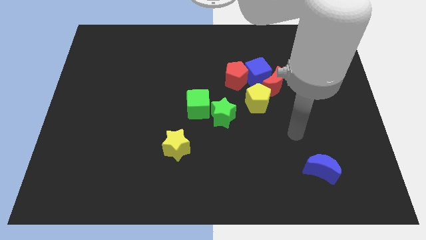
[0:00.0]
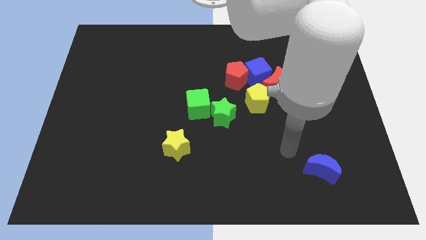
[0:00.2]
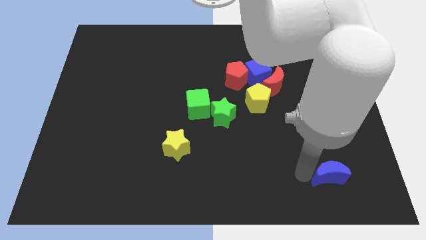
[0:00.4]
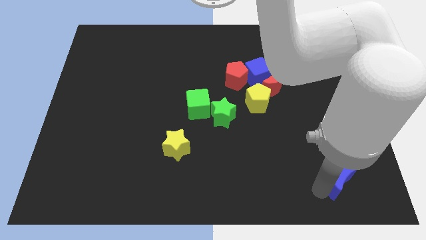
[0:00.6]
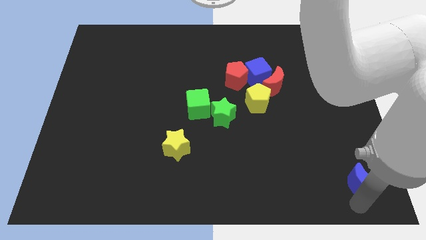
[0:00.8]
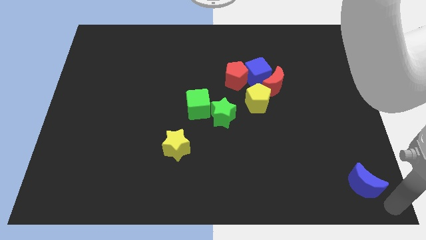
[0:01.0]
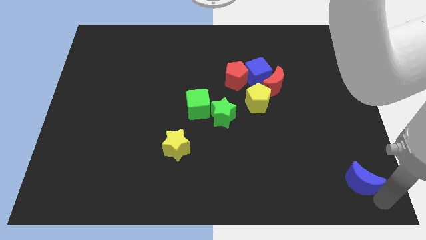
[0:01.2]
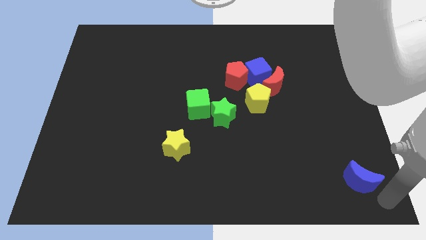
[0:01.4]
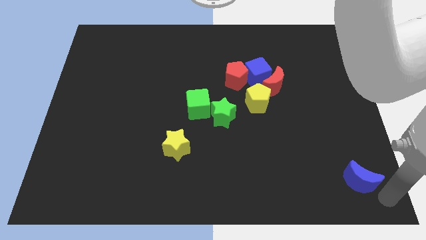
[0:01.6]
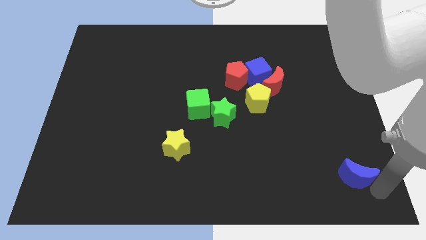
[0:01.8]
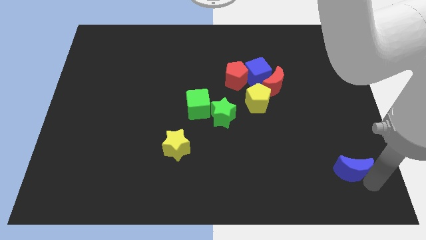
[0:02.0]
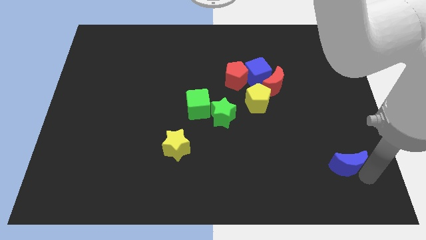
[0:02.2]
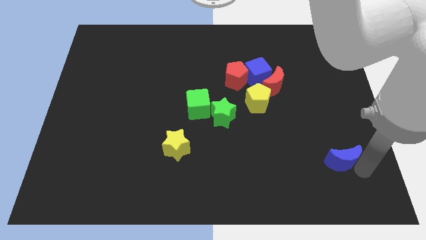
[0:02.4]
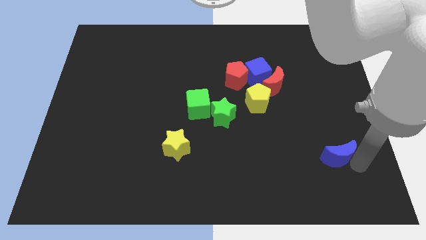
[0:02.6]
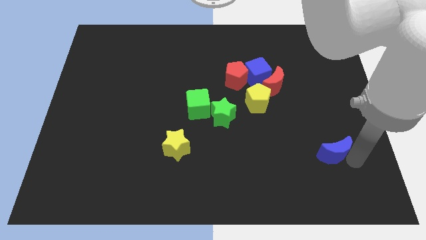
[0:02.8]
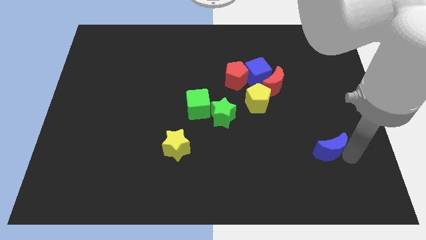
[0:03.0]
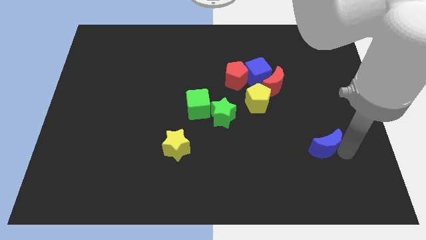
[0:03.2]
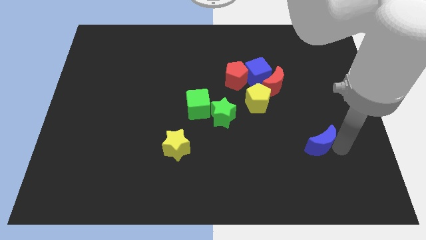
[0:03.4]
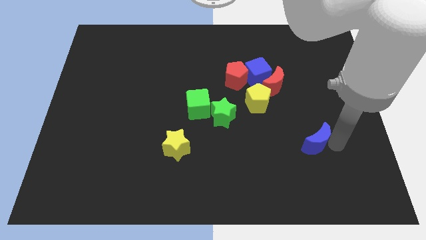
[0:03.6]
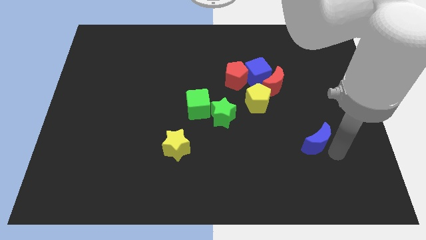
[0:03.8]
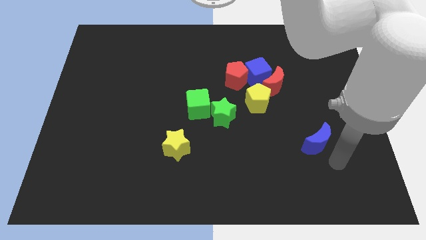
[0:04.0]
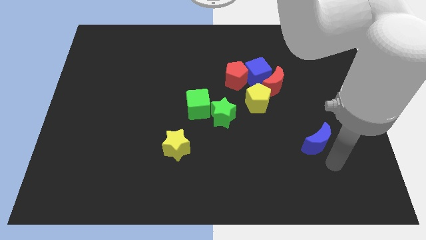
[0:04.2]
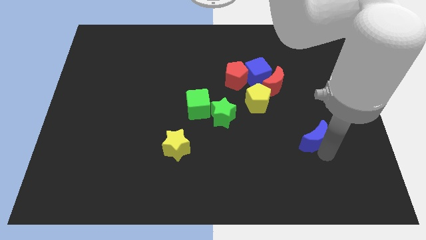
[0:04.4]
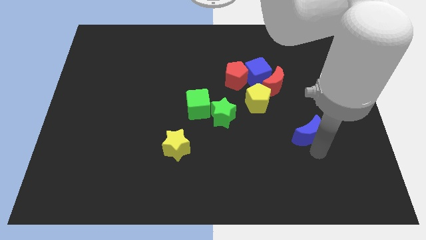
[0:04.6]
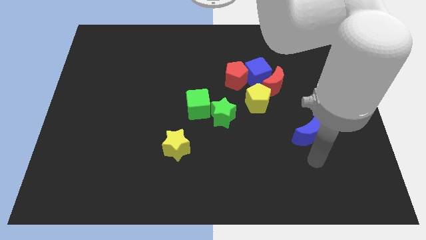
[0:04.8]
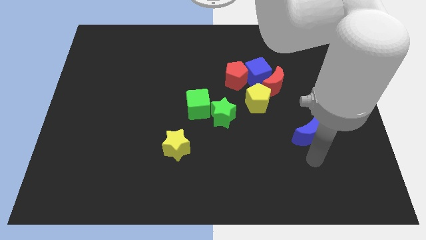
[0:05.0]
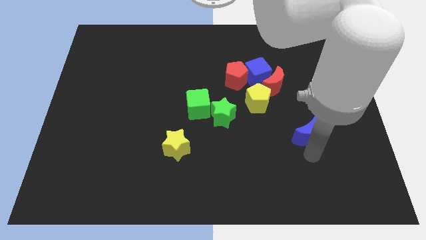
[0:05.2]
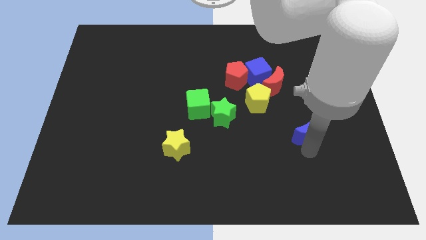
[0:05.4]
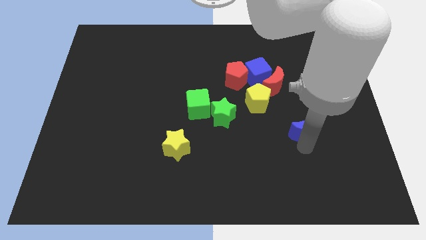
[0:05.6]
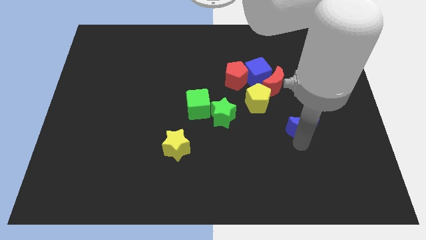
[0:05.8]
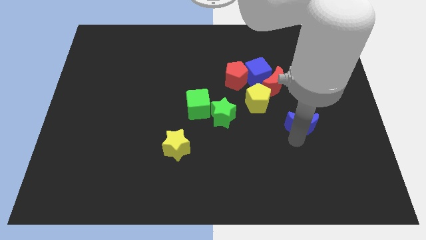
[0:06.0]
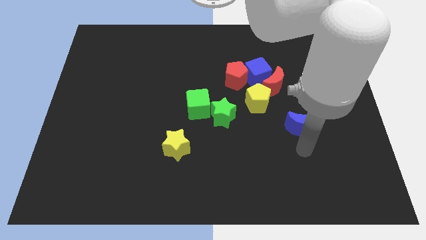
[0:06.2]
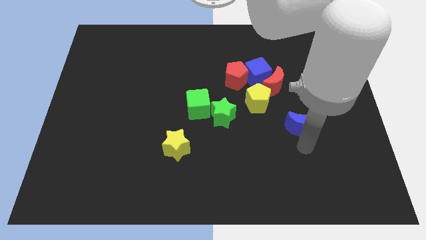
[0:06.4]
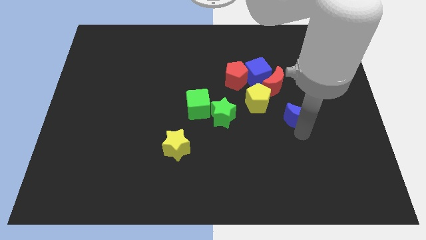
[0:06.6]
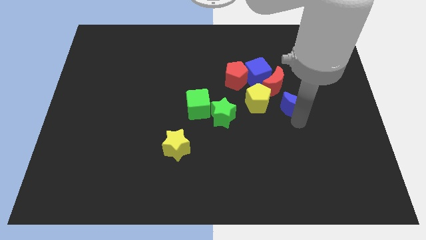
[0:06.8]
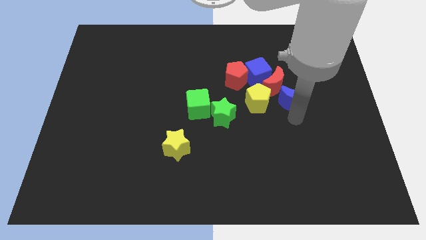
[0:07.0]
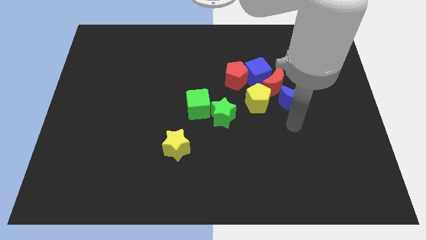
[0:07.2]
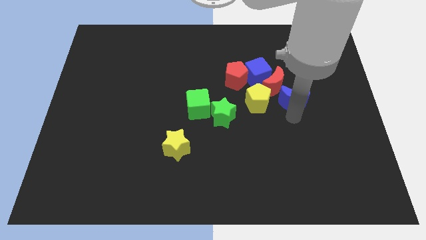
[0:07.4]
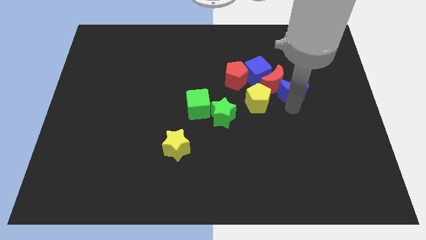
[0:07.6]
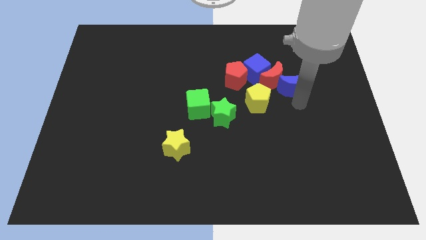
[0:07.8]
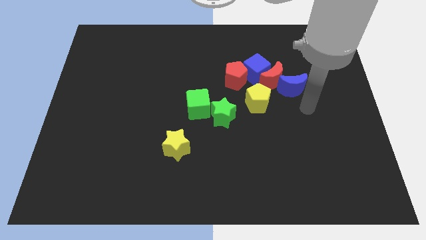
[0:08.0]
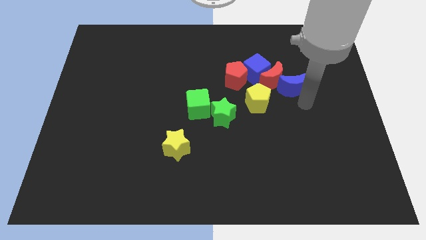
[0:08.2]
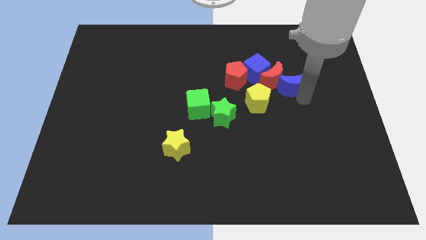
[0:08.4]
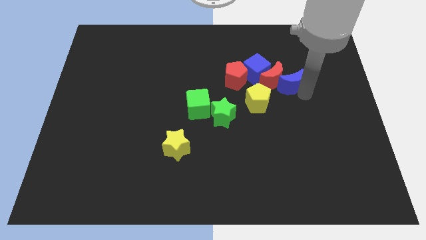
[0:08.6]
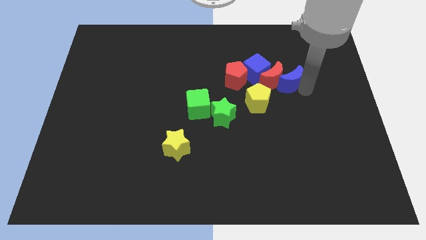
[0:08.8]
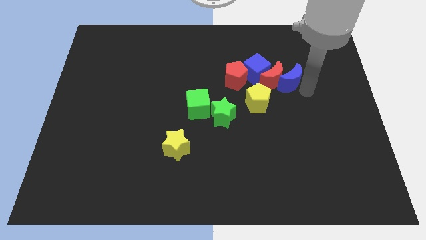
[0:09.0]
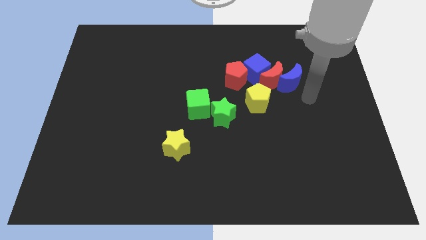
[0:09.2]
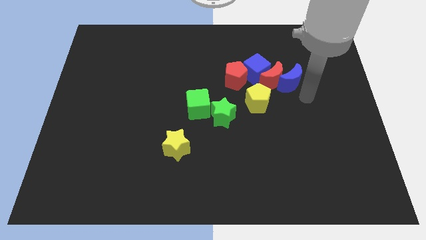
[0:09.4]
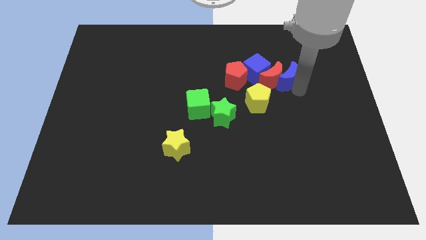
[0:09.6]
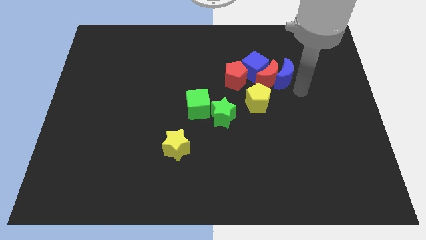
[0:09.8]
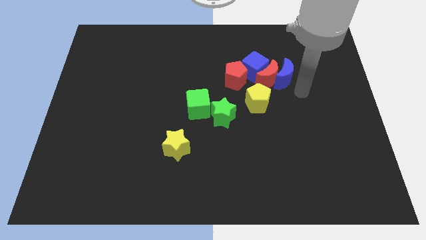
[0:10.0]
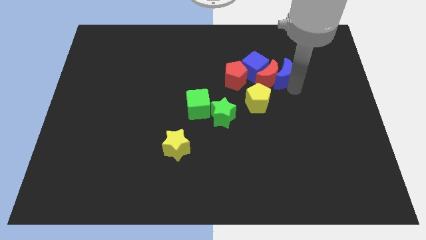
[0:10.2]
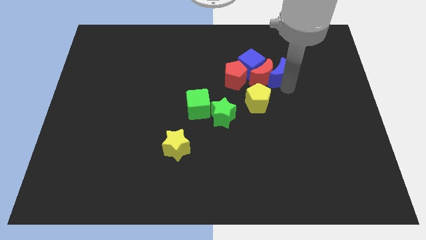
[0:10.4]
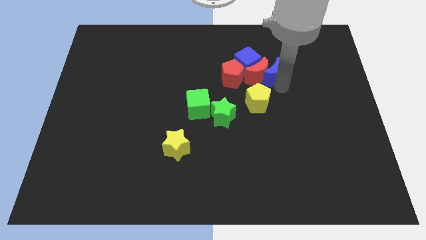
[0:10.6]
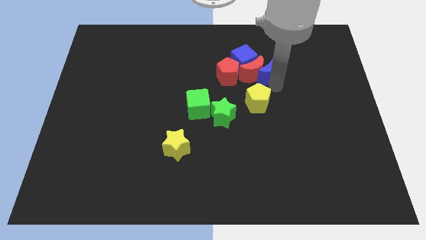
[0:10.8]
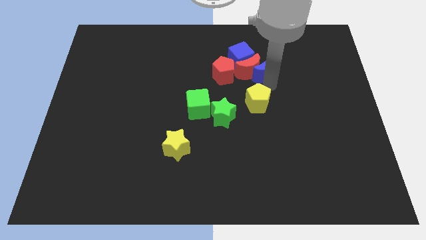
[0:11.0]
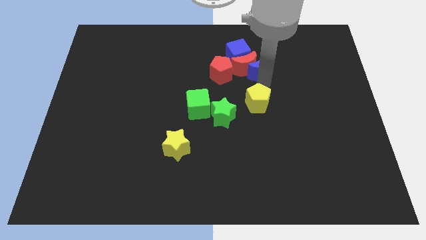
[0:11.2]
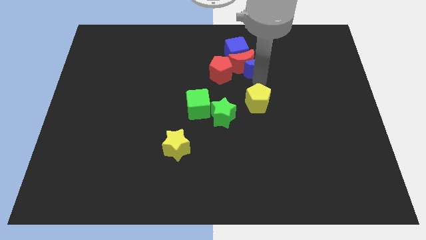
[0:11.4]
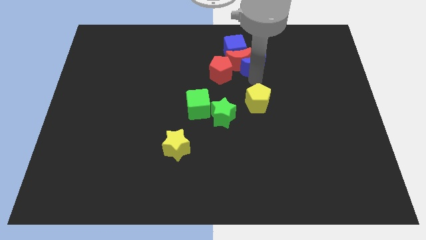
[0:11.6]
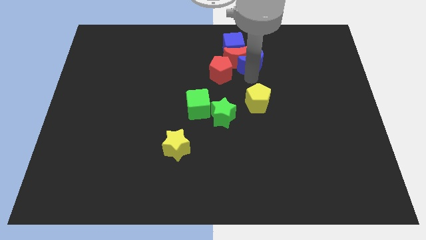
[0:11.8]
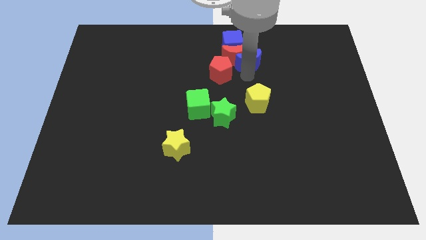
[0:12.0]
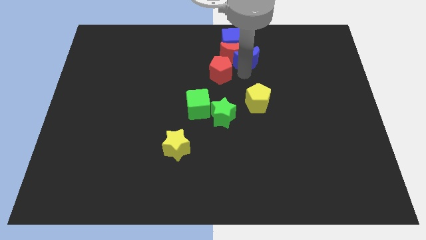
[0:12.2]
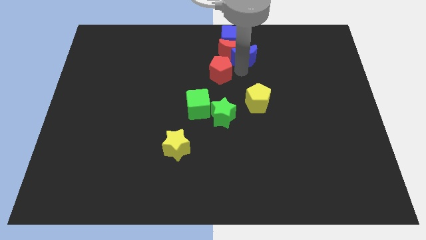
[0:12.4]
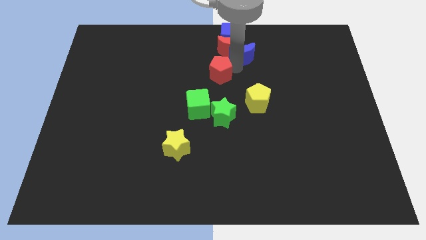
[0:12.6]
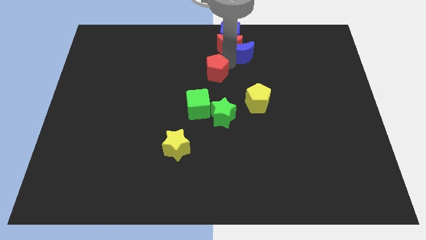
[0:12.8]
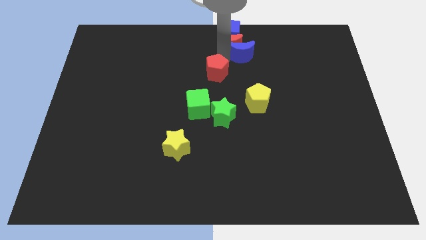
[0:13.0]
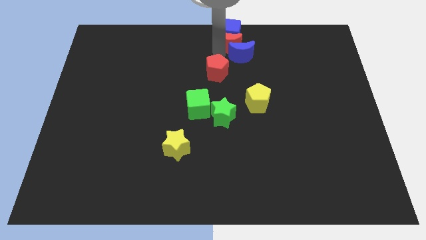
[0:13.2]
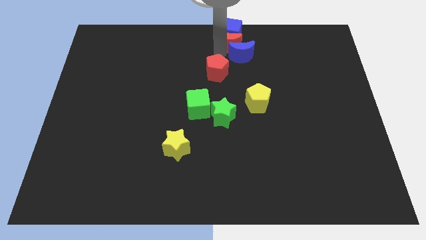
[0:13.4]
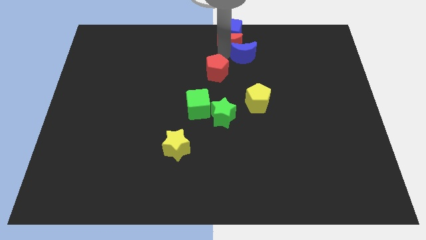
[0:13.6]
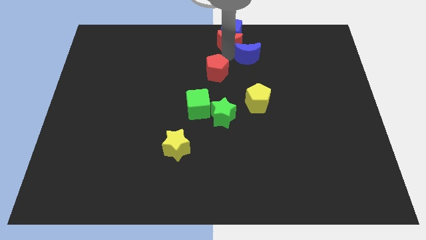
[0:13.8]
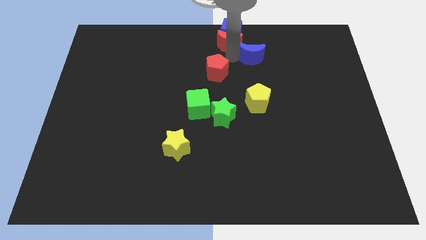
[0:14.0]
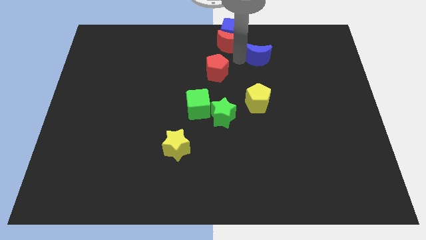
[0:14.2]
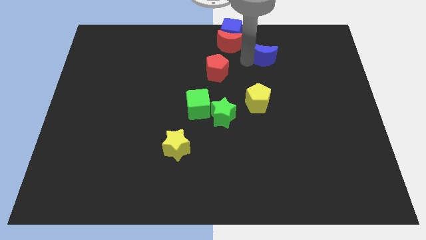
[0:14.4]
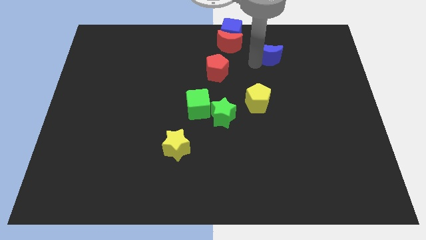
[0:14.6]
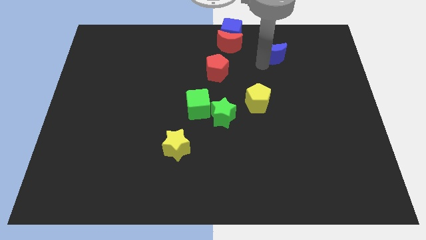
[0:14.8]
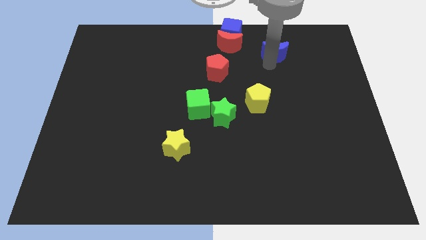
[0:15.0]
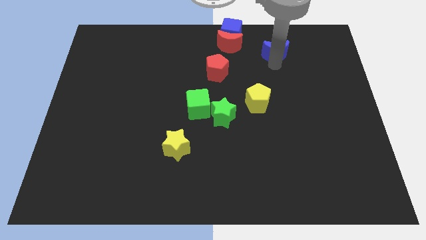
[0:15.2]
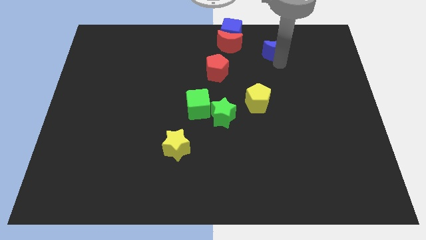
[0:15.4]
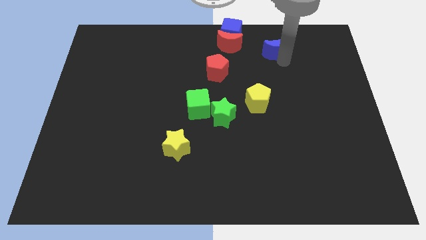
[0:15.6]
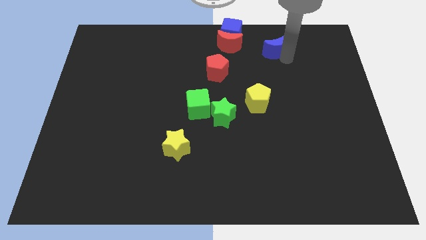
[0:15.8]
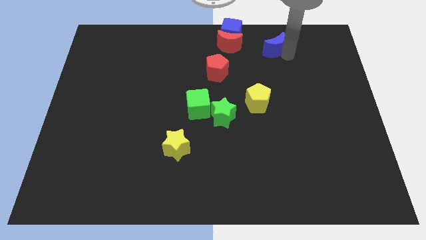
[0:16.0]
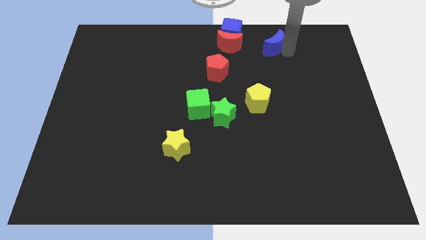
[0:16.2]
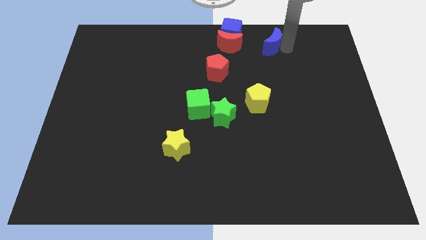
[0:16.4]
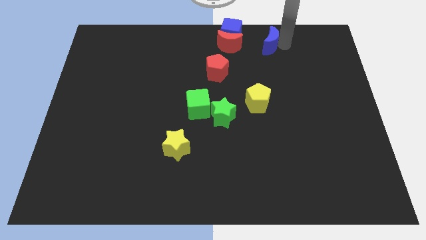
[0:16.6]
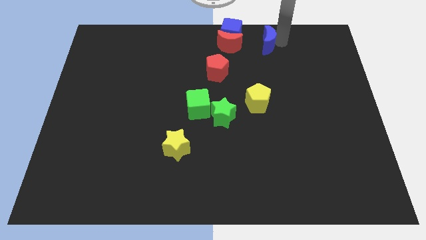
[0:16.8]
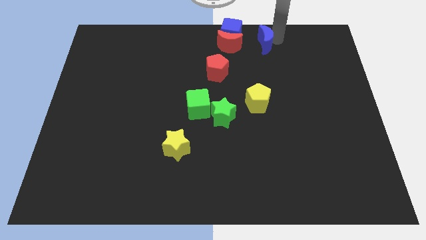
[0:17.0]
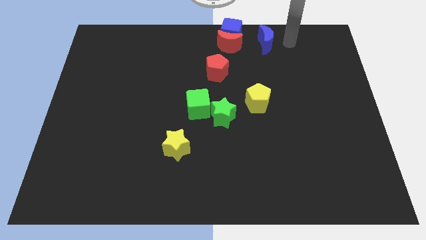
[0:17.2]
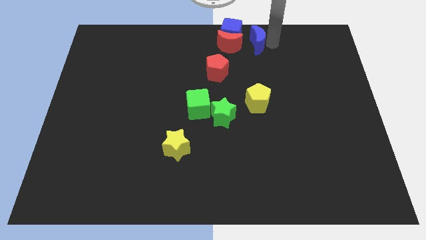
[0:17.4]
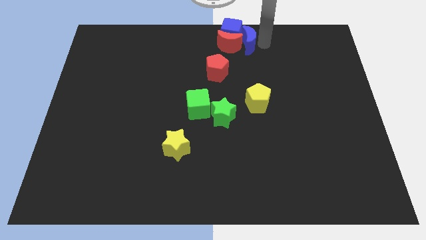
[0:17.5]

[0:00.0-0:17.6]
slide the blue moon to the towards your base
